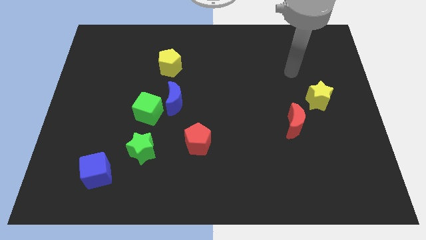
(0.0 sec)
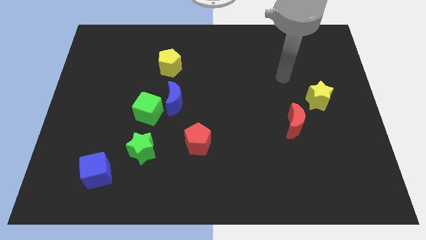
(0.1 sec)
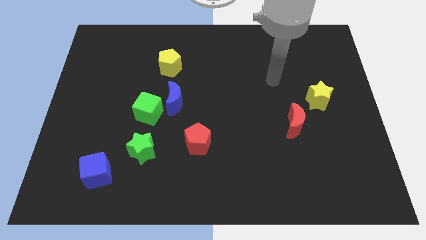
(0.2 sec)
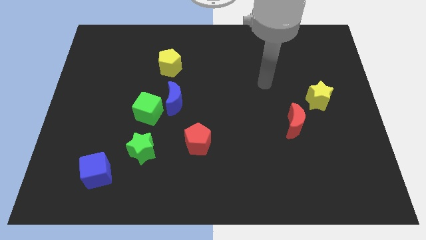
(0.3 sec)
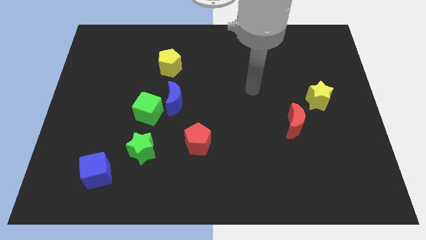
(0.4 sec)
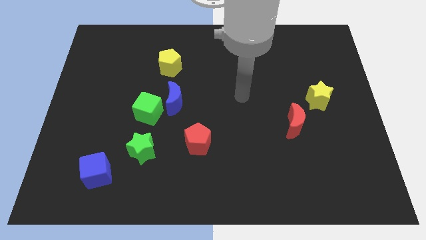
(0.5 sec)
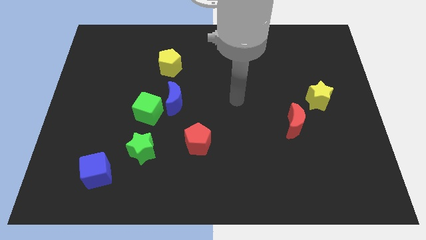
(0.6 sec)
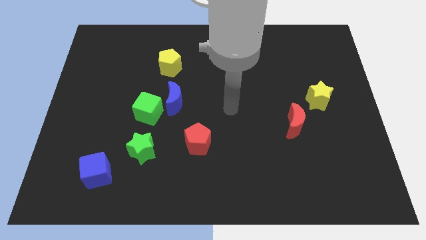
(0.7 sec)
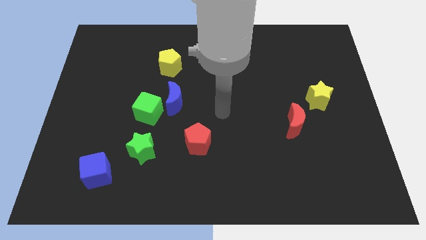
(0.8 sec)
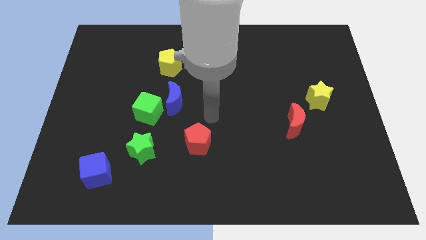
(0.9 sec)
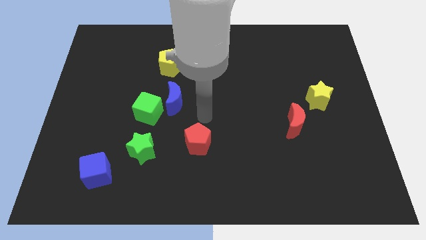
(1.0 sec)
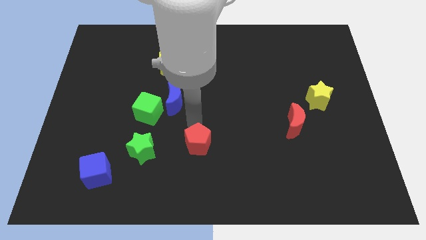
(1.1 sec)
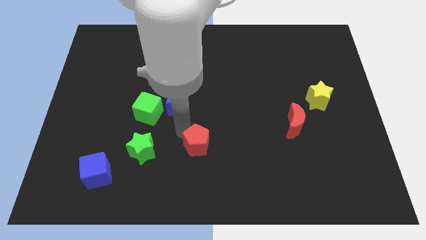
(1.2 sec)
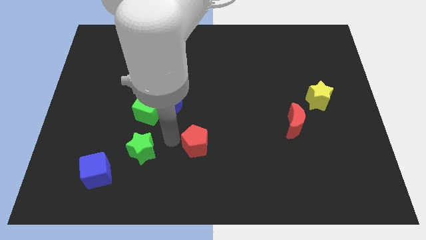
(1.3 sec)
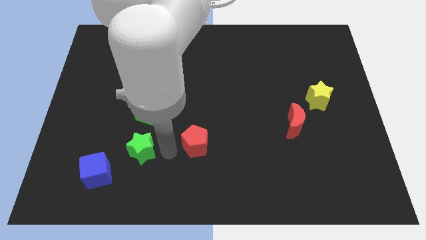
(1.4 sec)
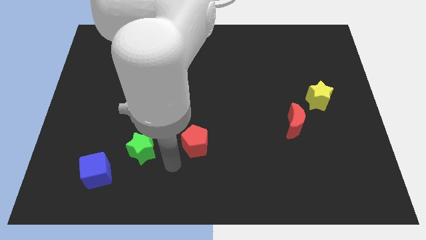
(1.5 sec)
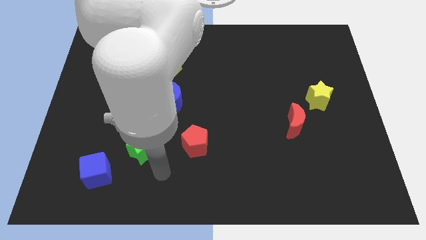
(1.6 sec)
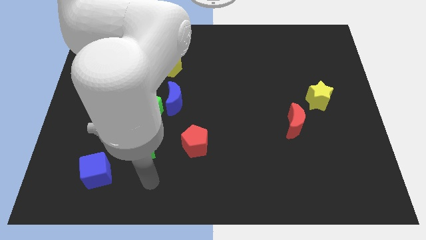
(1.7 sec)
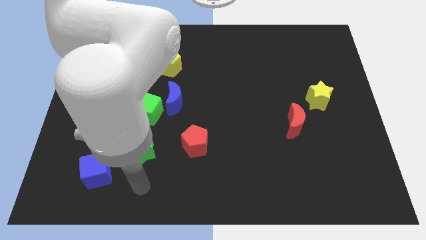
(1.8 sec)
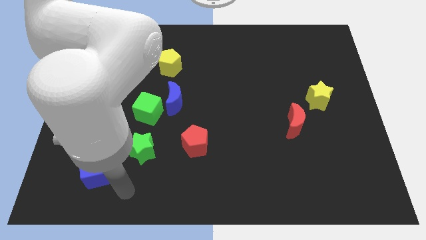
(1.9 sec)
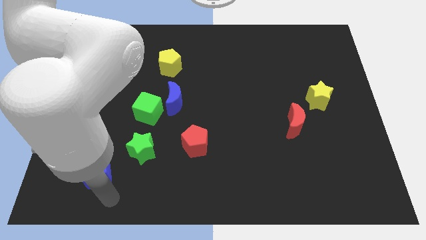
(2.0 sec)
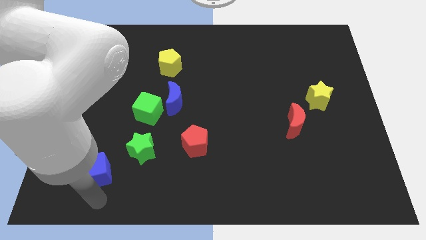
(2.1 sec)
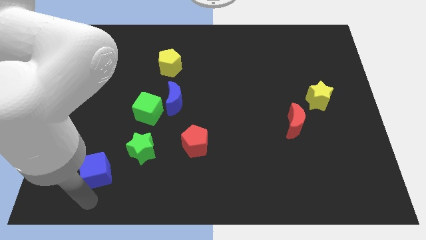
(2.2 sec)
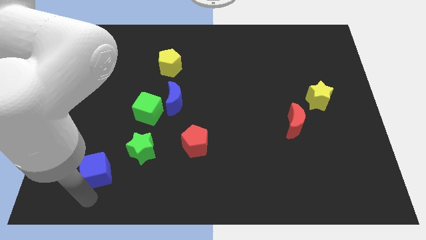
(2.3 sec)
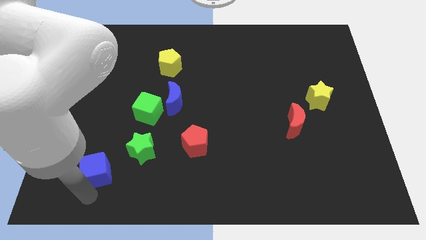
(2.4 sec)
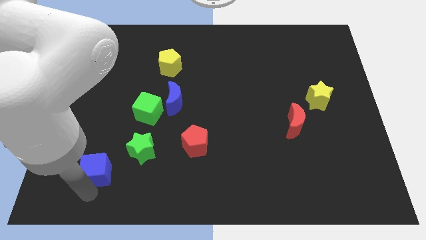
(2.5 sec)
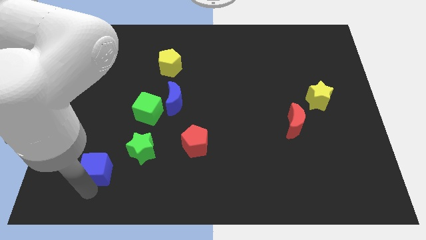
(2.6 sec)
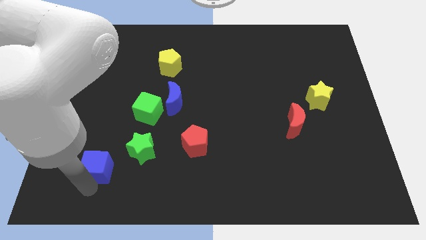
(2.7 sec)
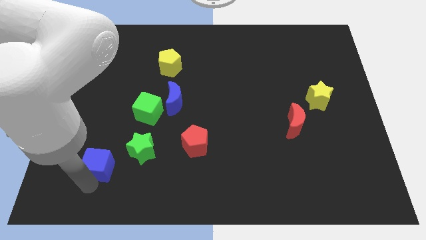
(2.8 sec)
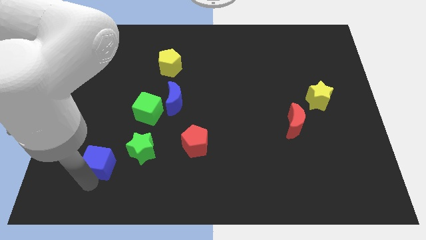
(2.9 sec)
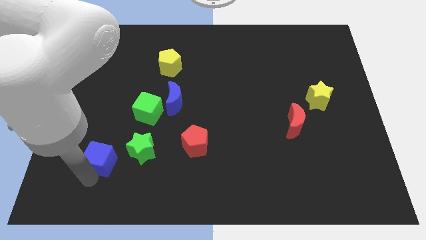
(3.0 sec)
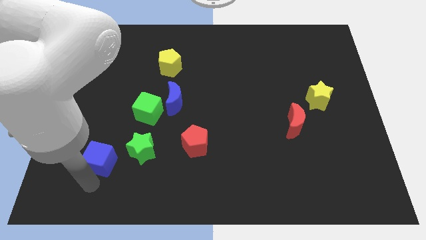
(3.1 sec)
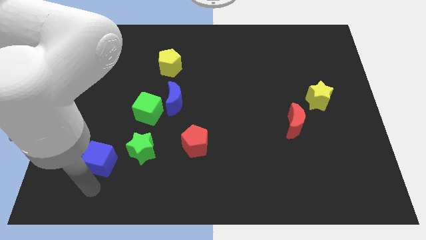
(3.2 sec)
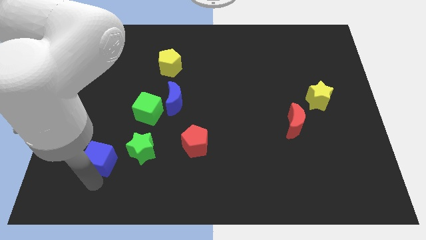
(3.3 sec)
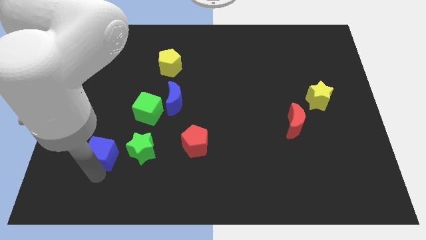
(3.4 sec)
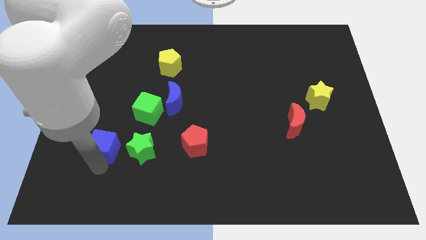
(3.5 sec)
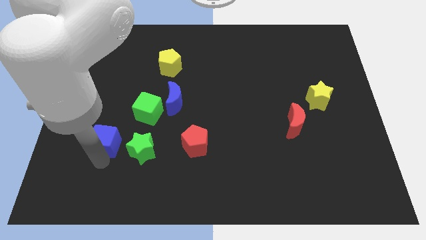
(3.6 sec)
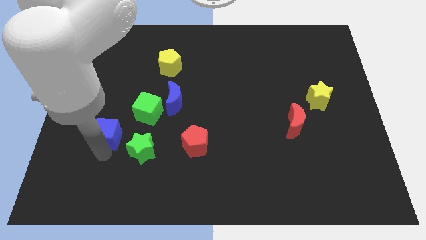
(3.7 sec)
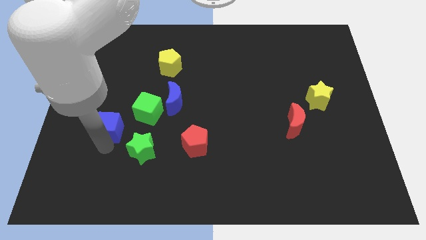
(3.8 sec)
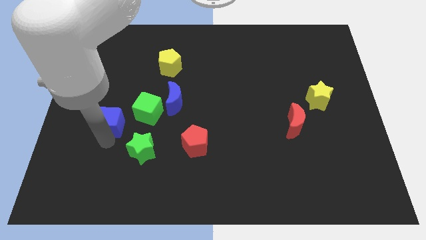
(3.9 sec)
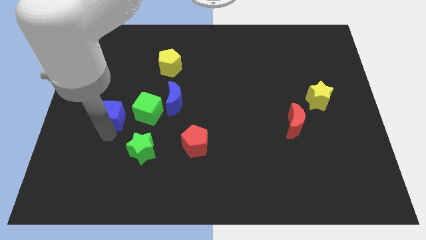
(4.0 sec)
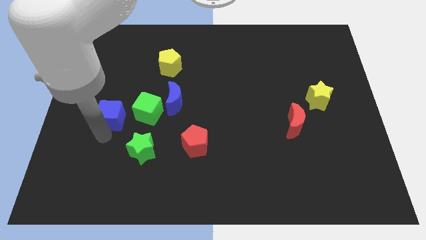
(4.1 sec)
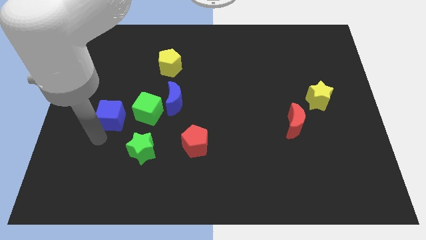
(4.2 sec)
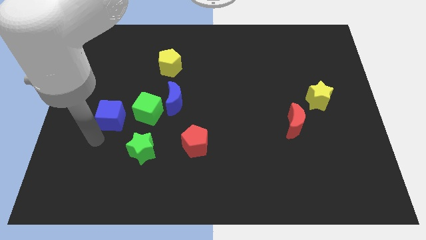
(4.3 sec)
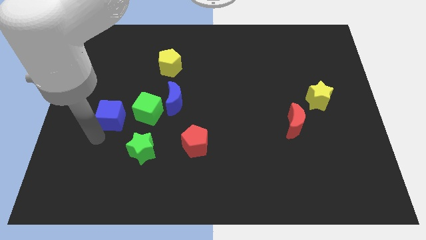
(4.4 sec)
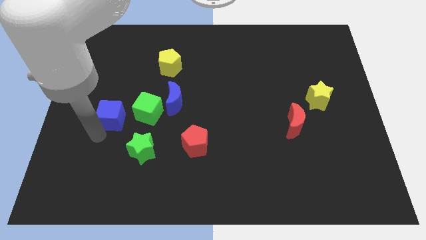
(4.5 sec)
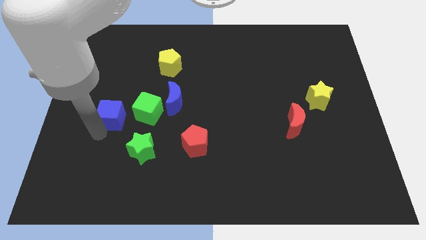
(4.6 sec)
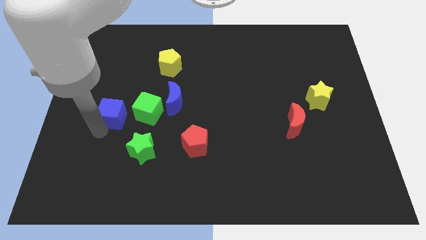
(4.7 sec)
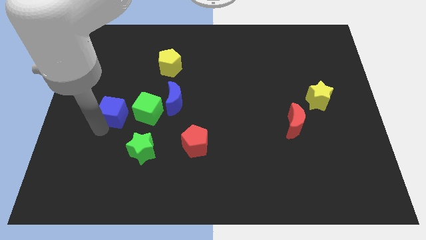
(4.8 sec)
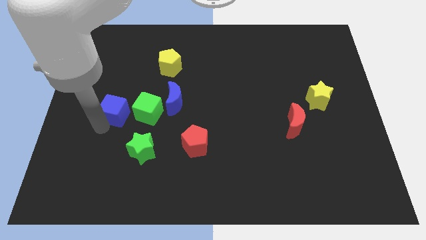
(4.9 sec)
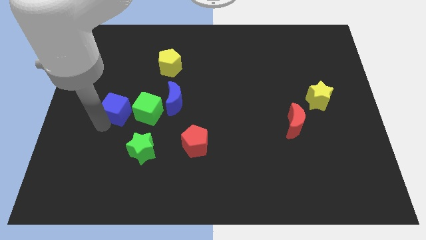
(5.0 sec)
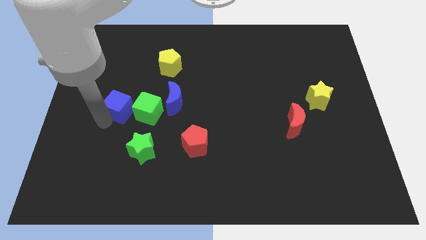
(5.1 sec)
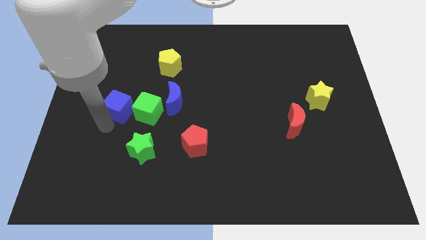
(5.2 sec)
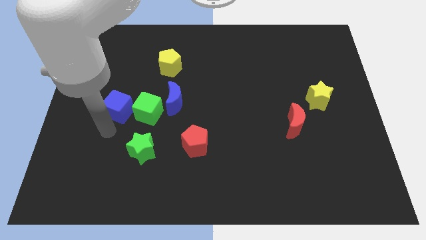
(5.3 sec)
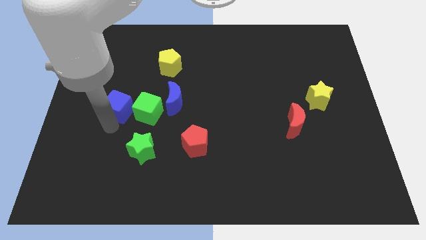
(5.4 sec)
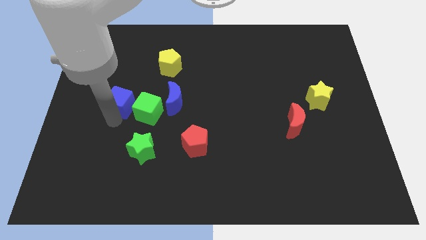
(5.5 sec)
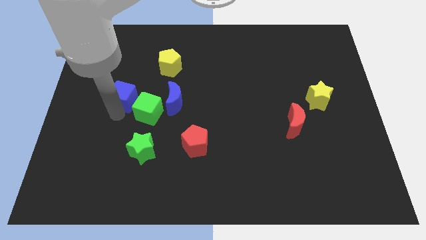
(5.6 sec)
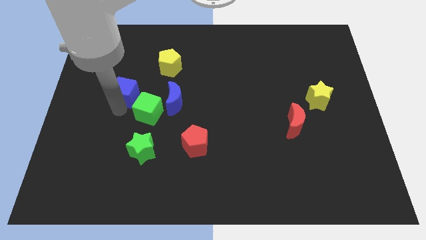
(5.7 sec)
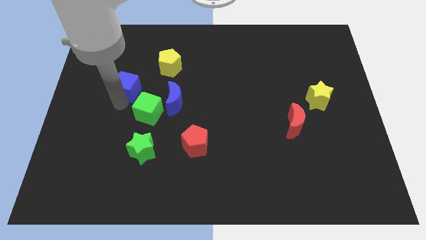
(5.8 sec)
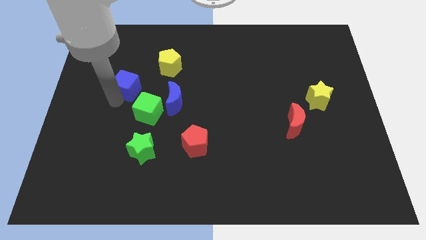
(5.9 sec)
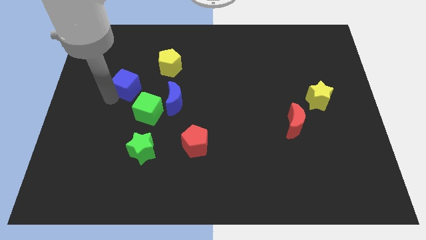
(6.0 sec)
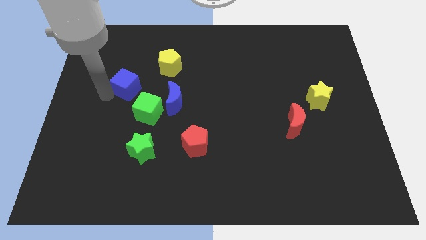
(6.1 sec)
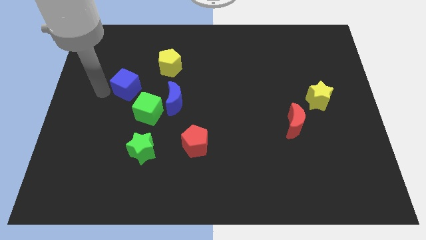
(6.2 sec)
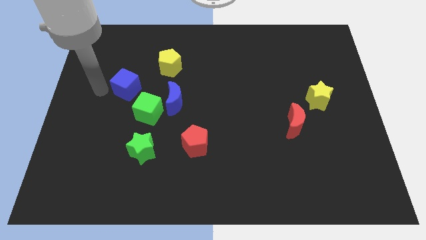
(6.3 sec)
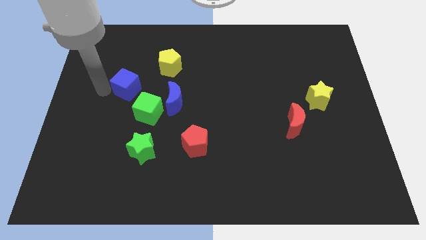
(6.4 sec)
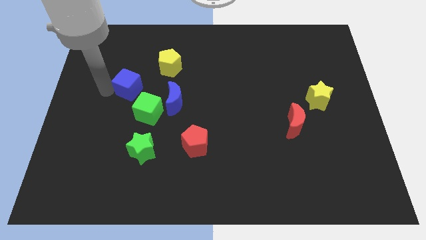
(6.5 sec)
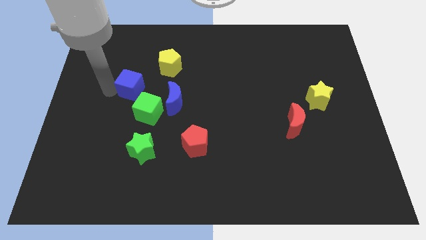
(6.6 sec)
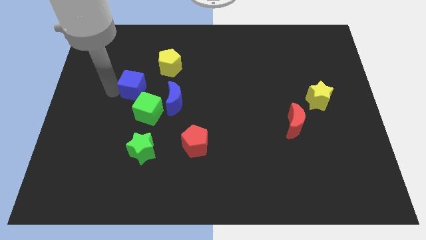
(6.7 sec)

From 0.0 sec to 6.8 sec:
push the blue cube to the top left side of the blue moon
